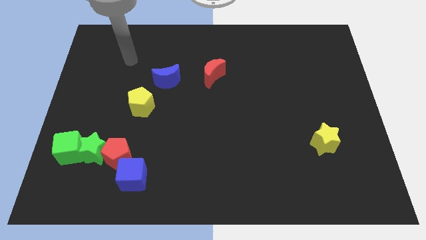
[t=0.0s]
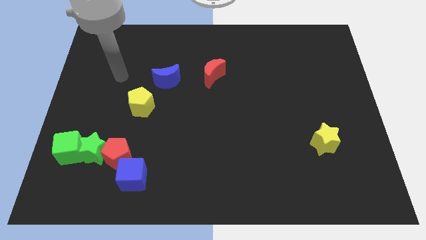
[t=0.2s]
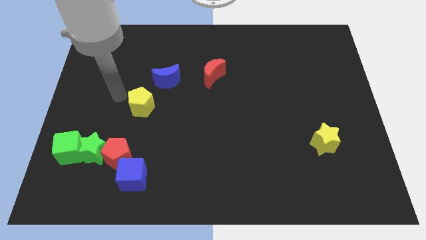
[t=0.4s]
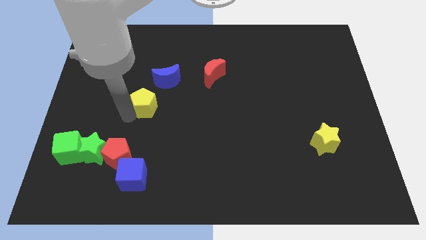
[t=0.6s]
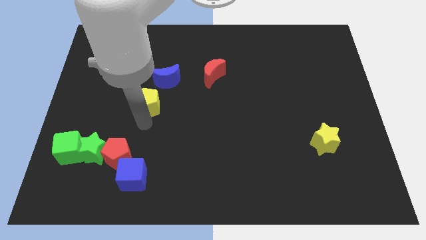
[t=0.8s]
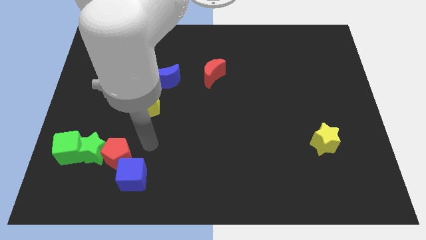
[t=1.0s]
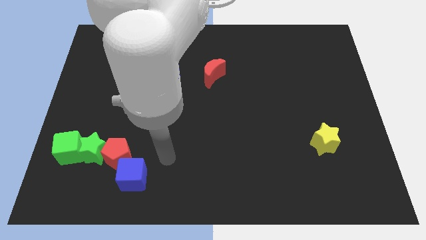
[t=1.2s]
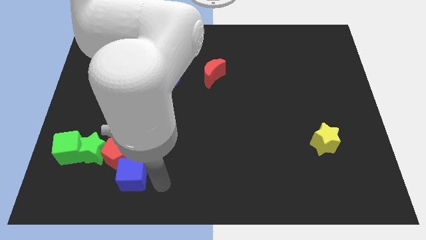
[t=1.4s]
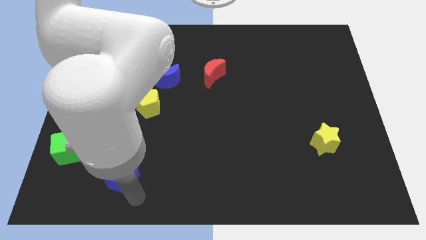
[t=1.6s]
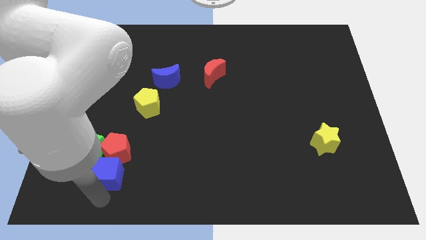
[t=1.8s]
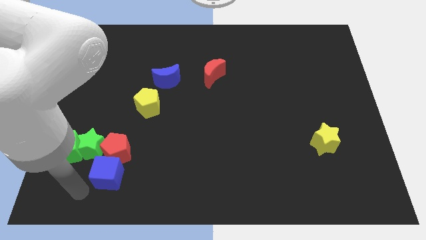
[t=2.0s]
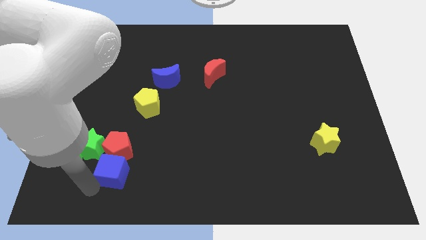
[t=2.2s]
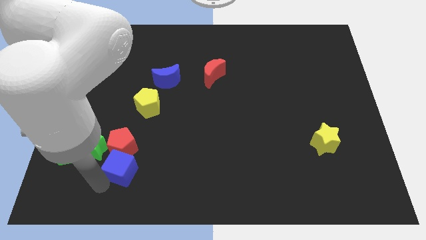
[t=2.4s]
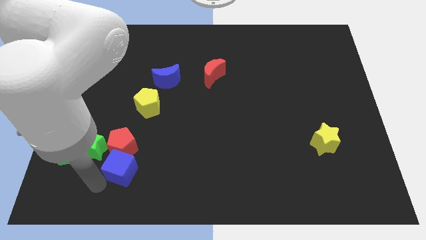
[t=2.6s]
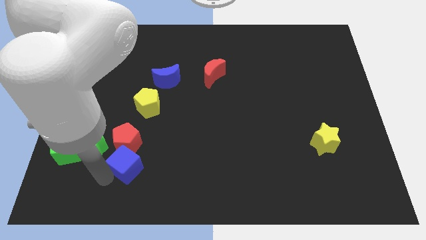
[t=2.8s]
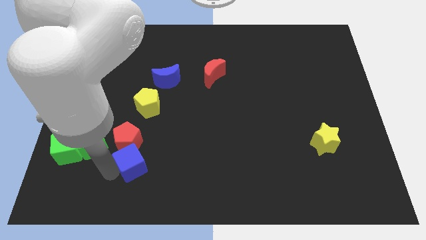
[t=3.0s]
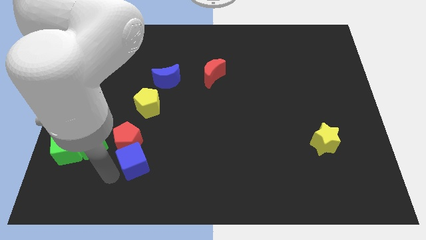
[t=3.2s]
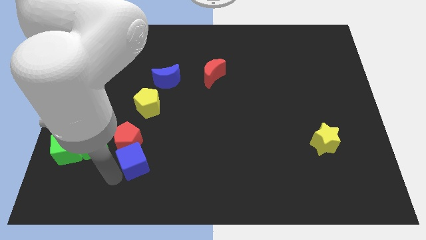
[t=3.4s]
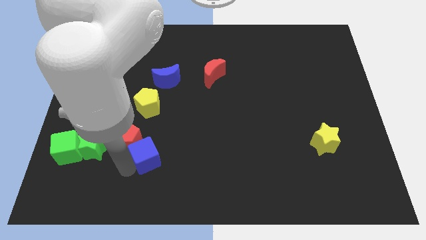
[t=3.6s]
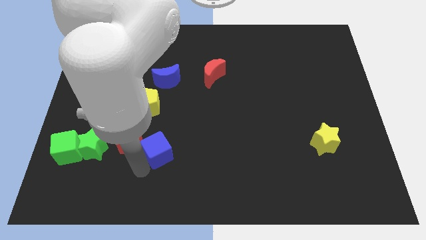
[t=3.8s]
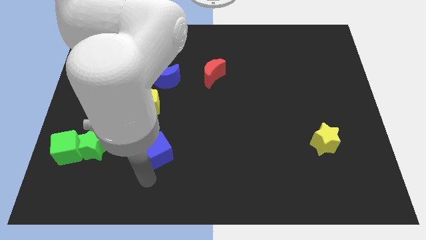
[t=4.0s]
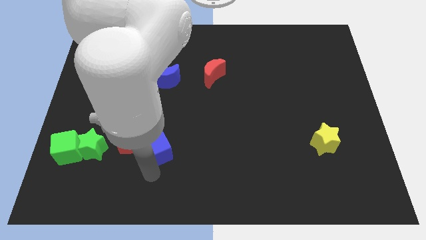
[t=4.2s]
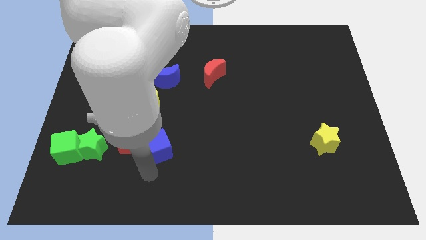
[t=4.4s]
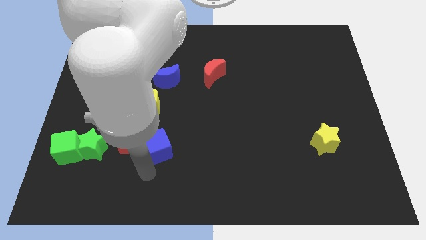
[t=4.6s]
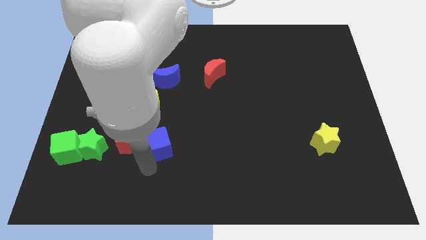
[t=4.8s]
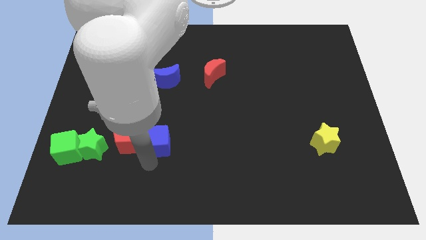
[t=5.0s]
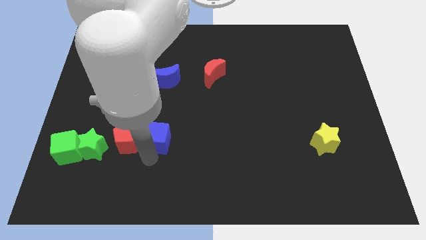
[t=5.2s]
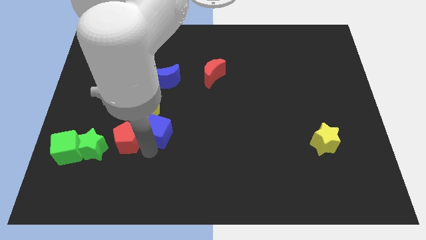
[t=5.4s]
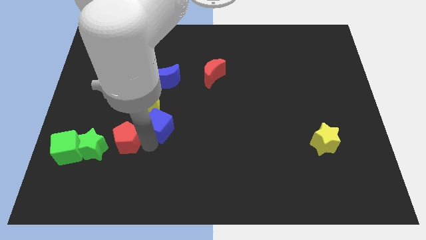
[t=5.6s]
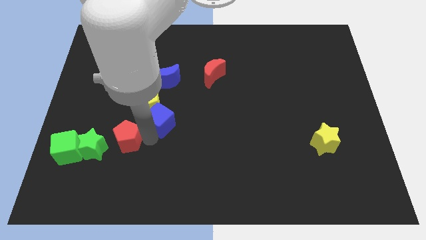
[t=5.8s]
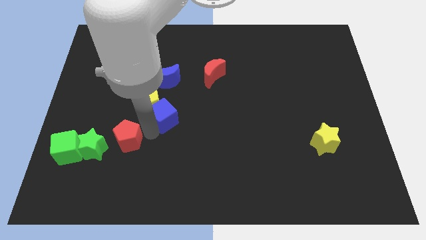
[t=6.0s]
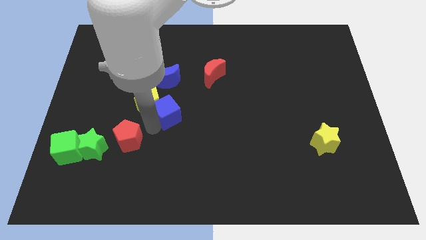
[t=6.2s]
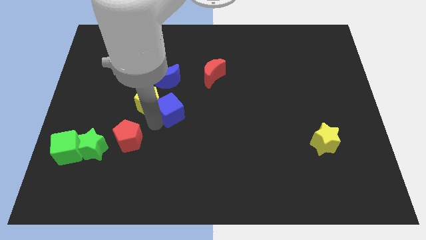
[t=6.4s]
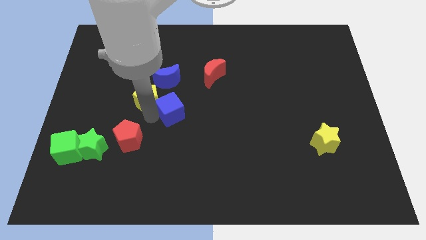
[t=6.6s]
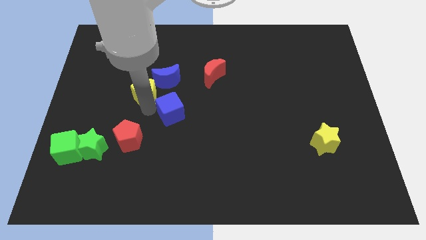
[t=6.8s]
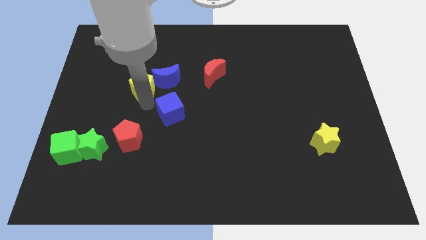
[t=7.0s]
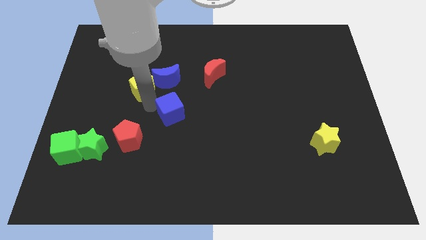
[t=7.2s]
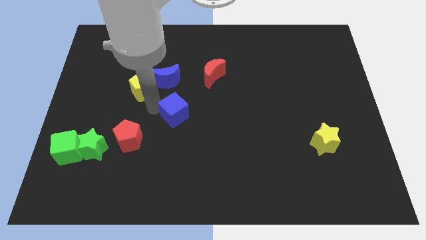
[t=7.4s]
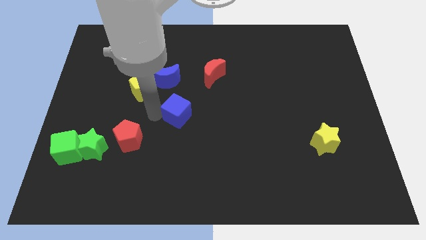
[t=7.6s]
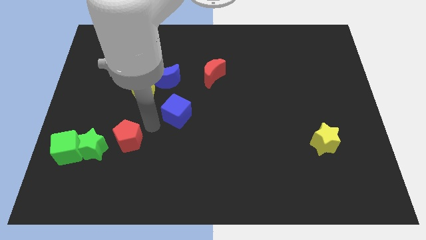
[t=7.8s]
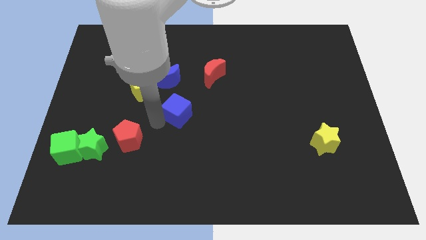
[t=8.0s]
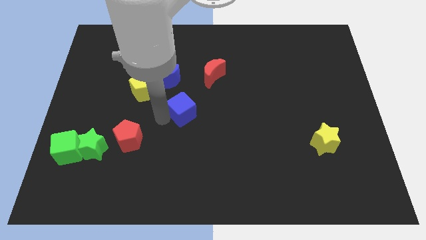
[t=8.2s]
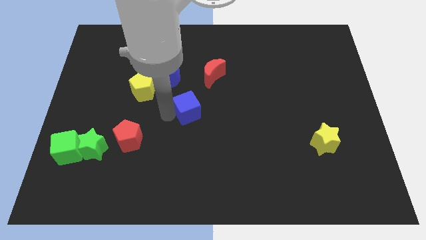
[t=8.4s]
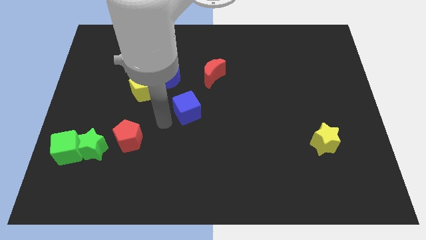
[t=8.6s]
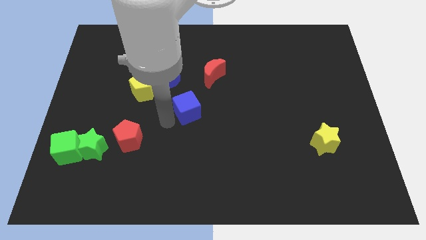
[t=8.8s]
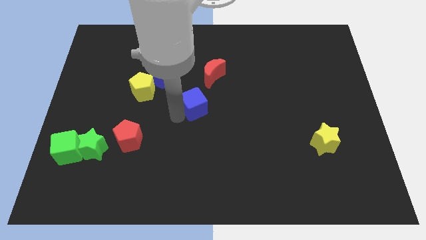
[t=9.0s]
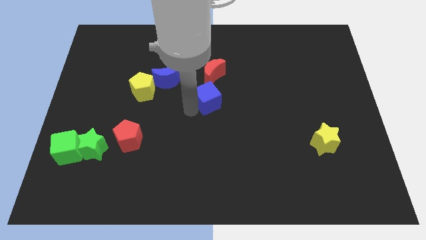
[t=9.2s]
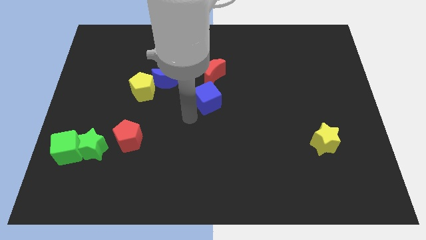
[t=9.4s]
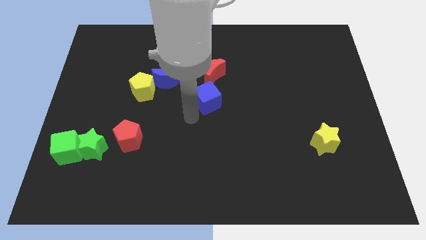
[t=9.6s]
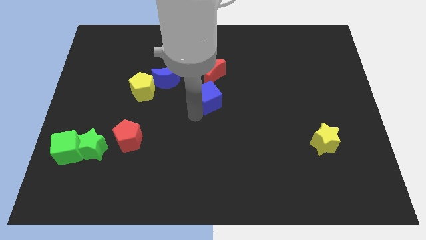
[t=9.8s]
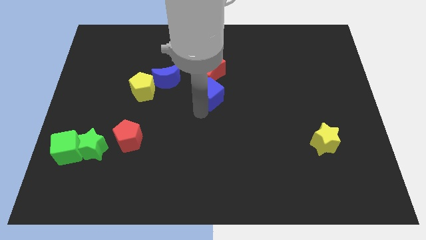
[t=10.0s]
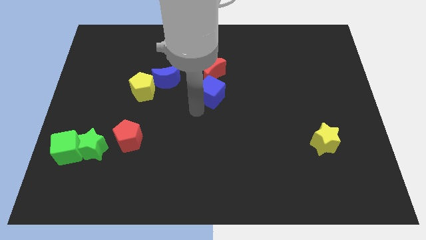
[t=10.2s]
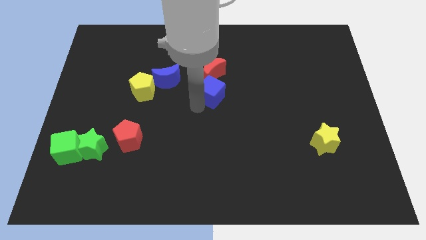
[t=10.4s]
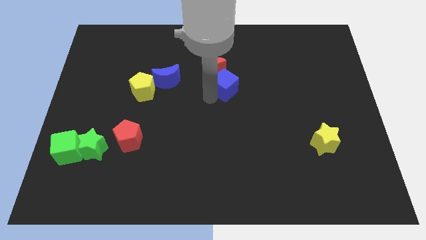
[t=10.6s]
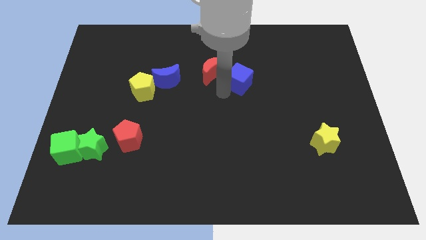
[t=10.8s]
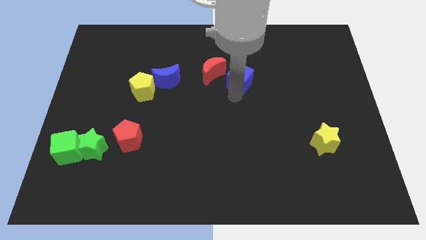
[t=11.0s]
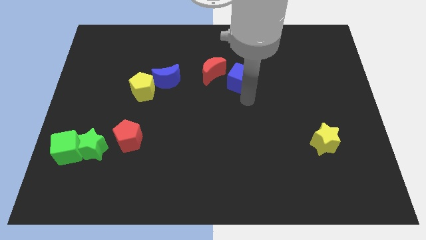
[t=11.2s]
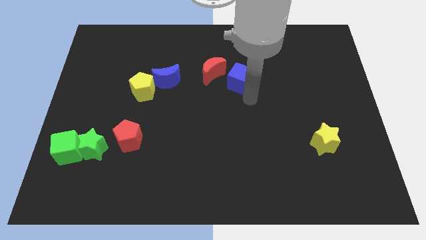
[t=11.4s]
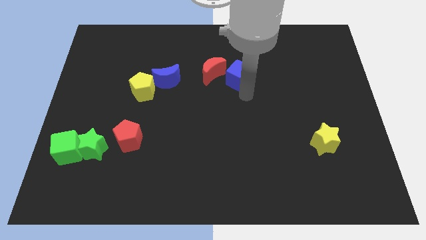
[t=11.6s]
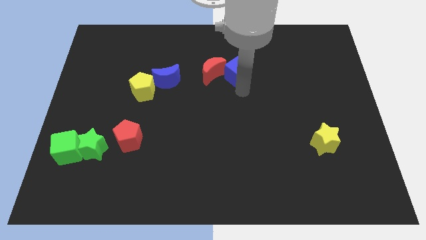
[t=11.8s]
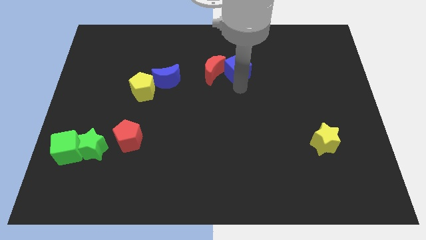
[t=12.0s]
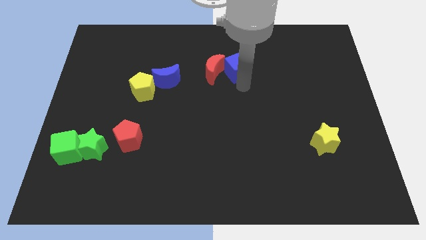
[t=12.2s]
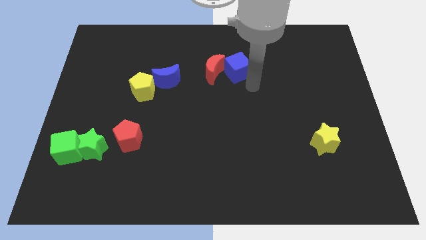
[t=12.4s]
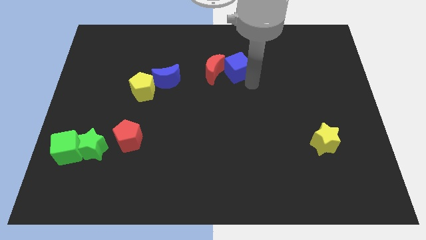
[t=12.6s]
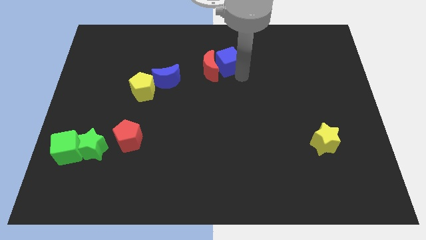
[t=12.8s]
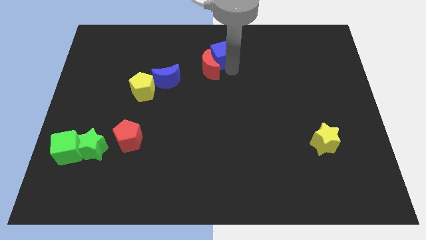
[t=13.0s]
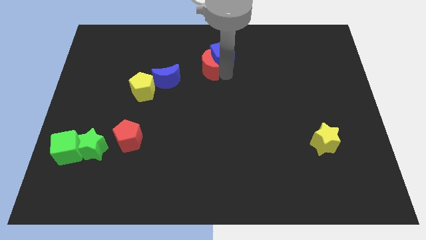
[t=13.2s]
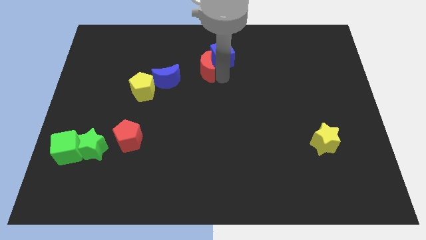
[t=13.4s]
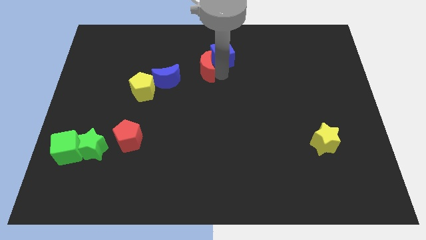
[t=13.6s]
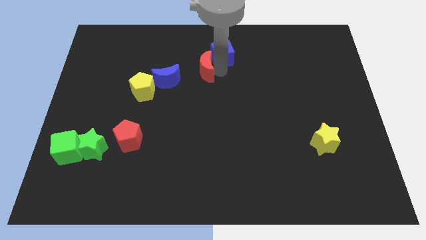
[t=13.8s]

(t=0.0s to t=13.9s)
push the blue cube to the top
